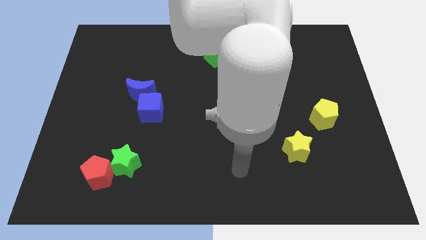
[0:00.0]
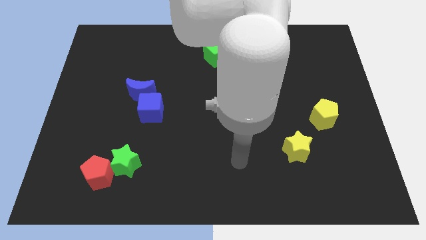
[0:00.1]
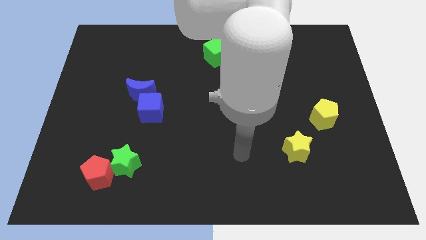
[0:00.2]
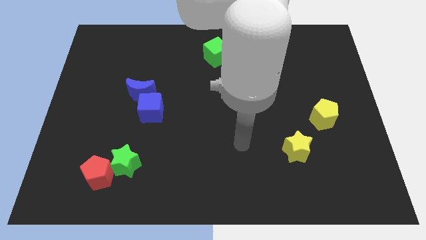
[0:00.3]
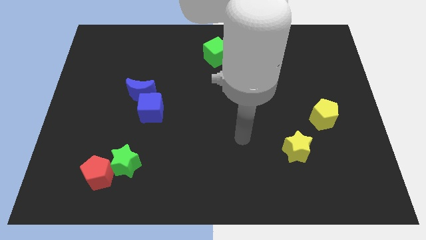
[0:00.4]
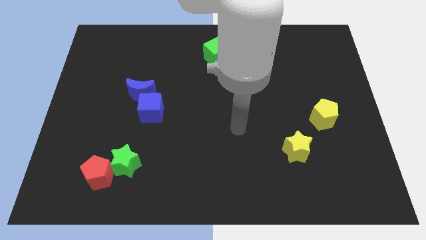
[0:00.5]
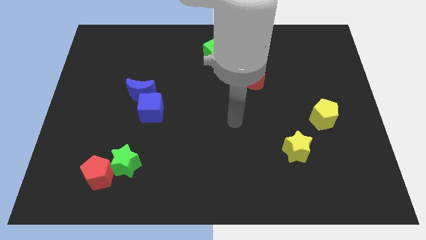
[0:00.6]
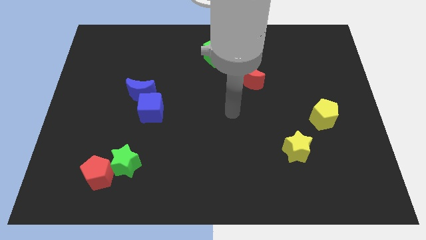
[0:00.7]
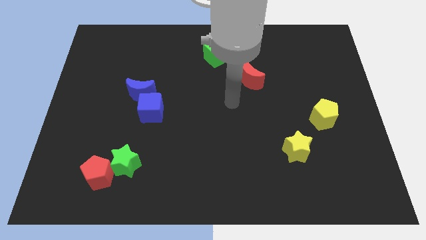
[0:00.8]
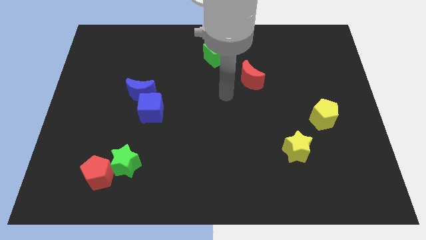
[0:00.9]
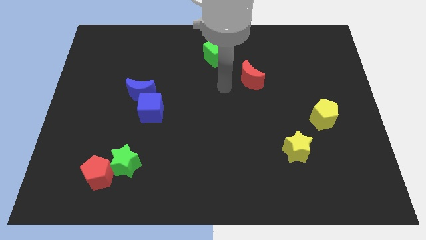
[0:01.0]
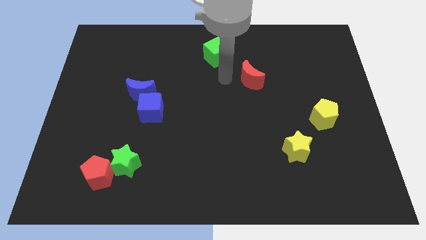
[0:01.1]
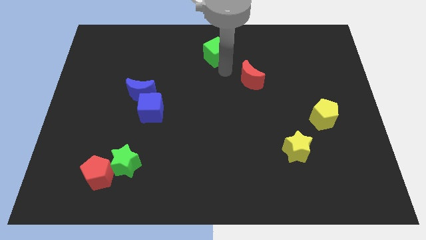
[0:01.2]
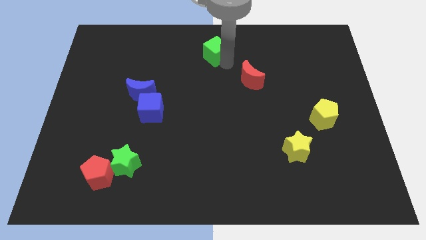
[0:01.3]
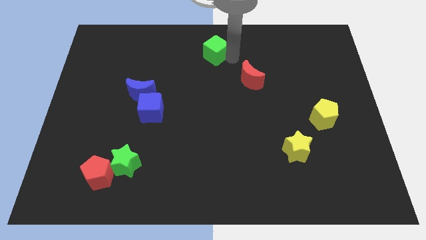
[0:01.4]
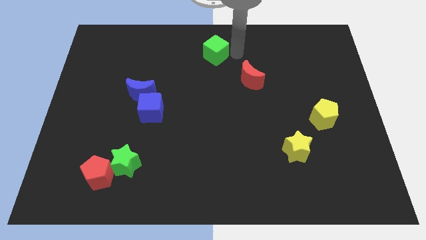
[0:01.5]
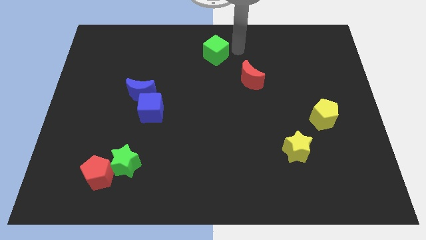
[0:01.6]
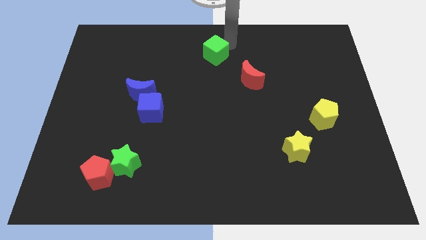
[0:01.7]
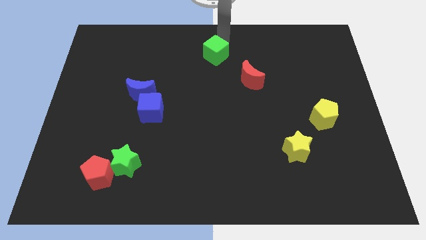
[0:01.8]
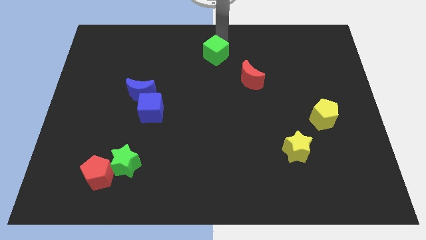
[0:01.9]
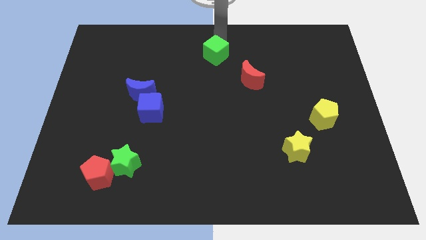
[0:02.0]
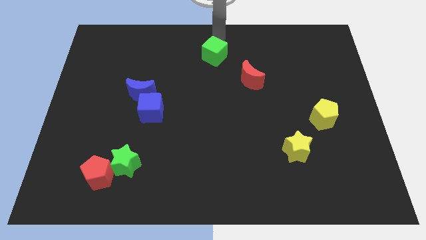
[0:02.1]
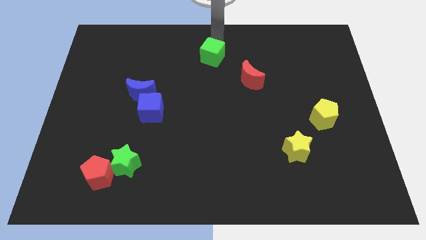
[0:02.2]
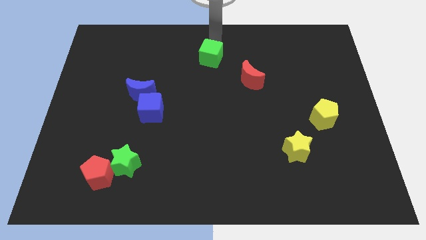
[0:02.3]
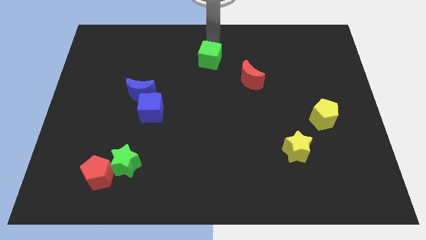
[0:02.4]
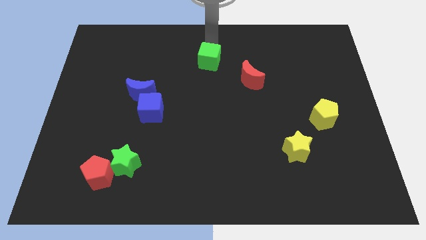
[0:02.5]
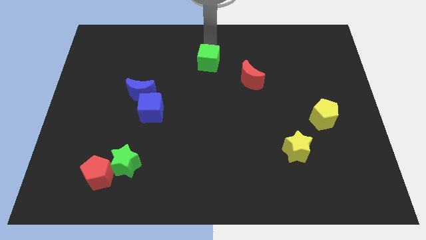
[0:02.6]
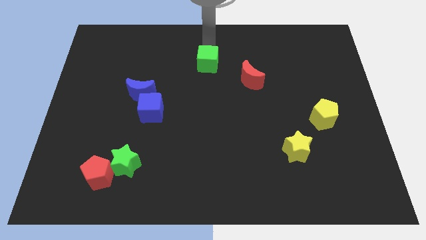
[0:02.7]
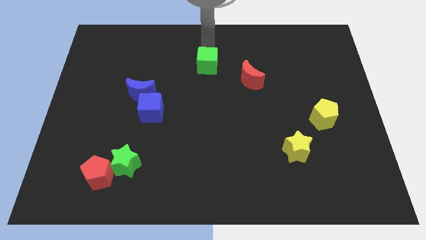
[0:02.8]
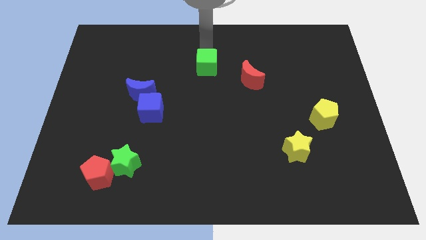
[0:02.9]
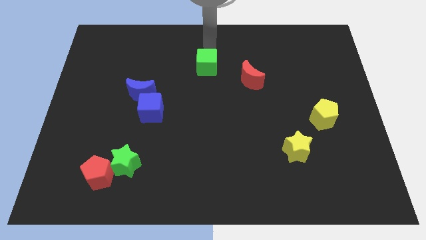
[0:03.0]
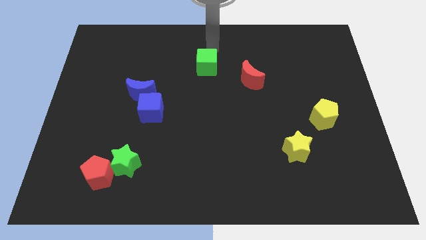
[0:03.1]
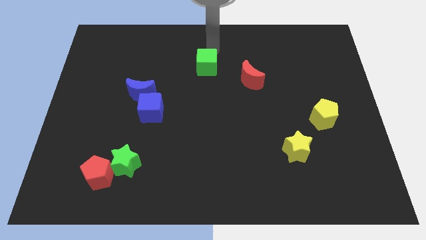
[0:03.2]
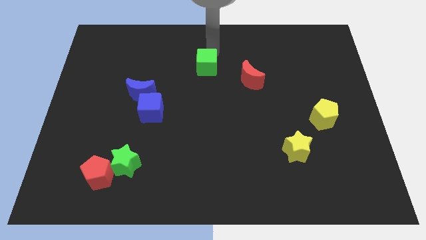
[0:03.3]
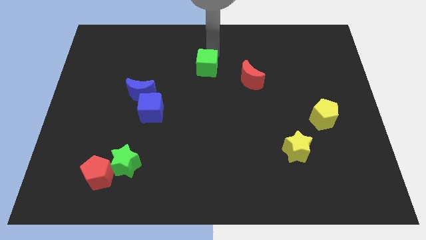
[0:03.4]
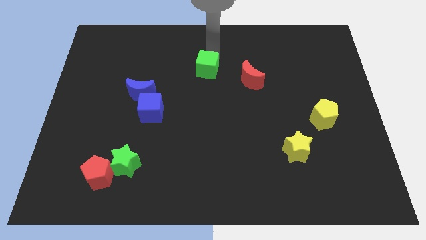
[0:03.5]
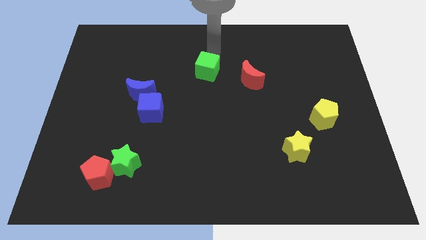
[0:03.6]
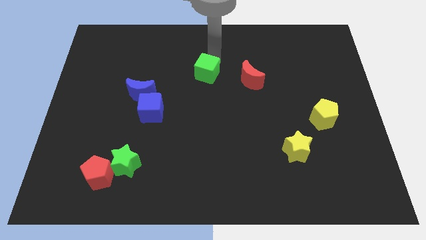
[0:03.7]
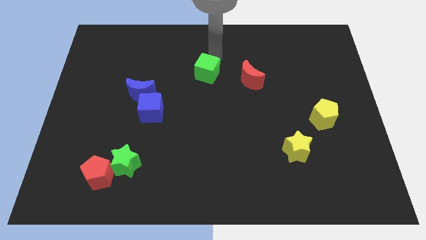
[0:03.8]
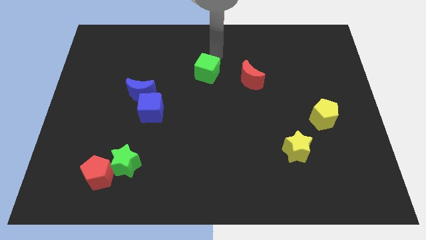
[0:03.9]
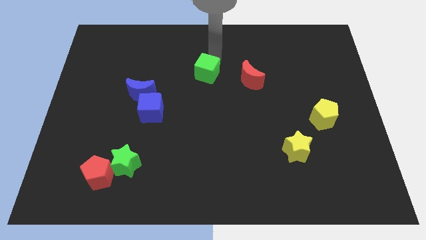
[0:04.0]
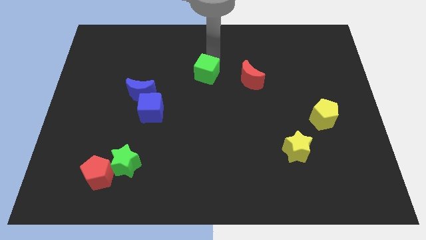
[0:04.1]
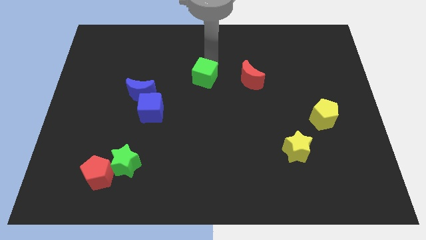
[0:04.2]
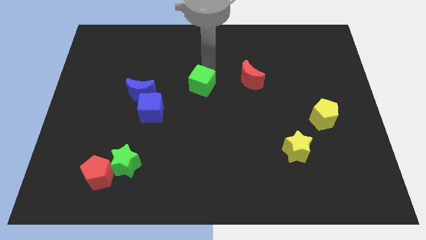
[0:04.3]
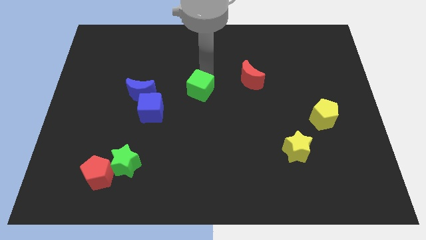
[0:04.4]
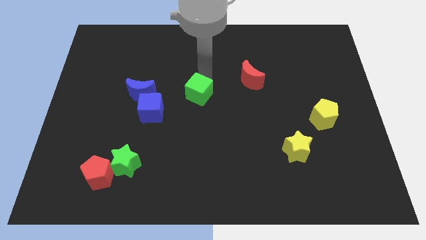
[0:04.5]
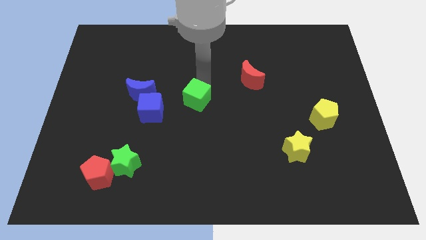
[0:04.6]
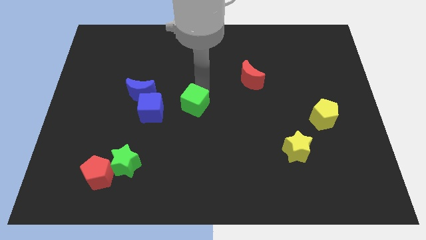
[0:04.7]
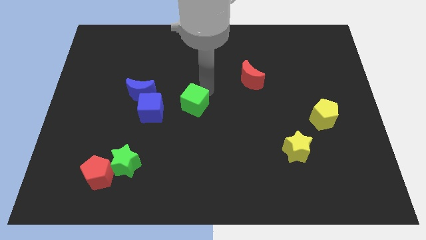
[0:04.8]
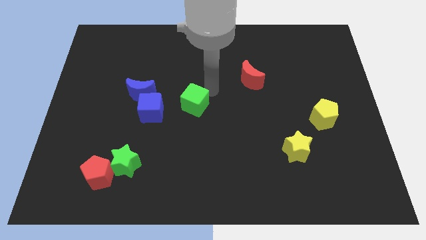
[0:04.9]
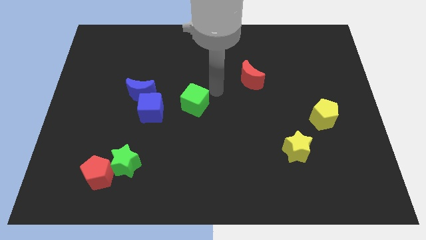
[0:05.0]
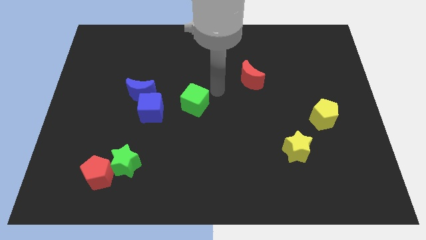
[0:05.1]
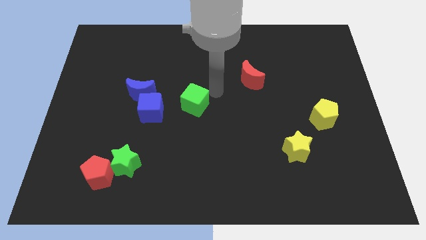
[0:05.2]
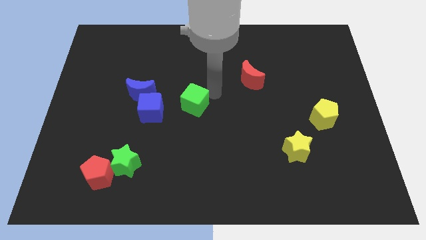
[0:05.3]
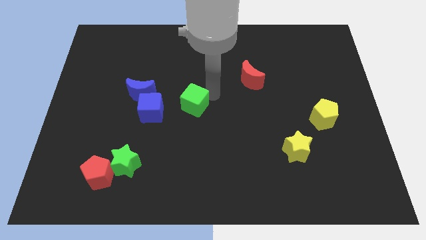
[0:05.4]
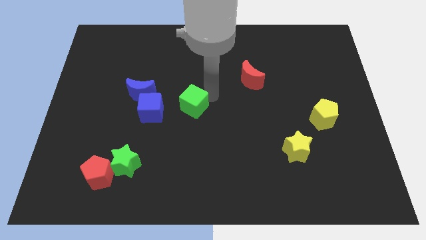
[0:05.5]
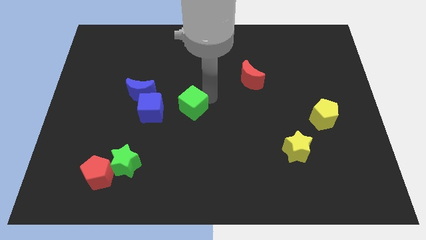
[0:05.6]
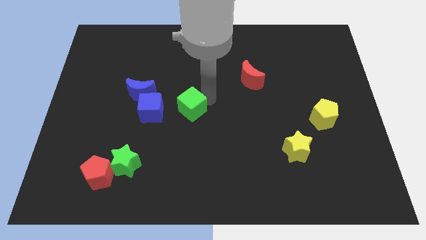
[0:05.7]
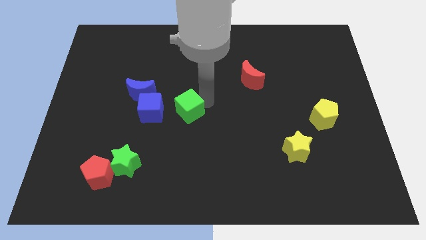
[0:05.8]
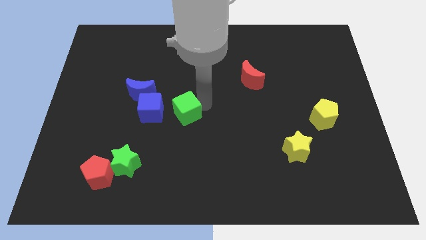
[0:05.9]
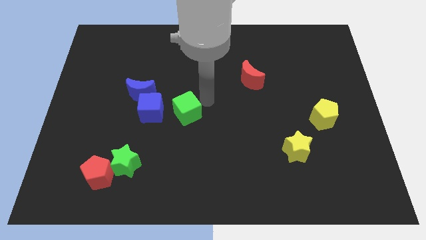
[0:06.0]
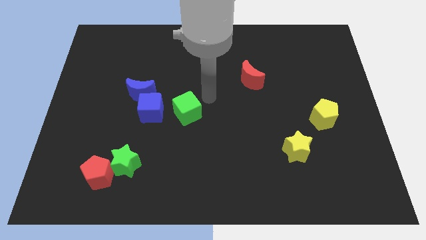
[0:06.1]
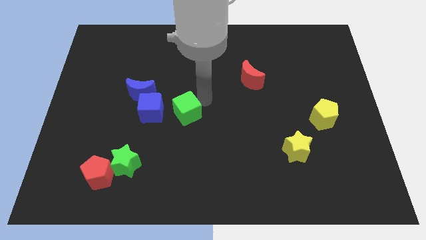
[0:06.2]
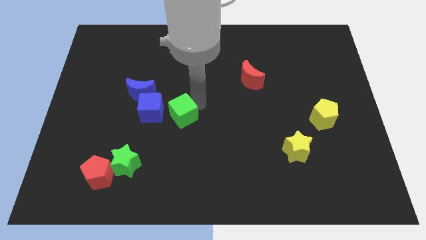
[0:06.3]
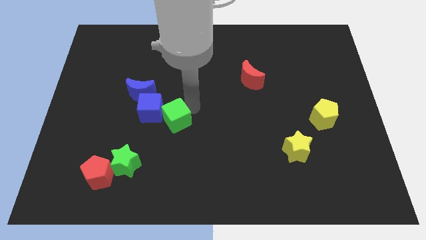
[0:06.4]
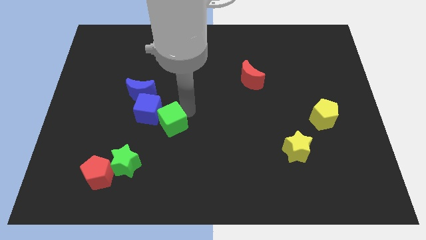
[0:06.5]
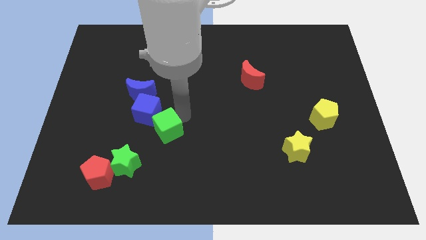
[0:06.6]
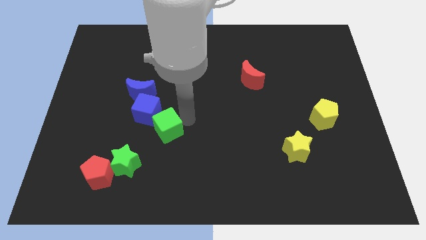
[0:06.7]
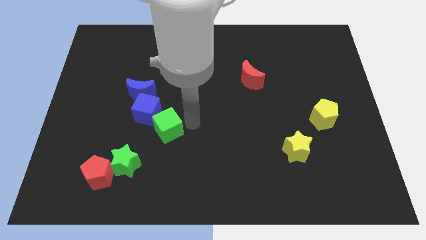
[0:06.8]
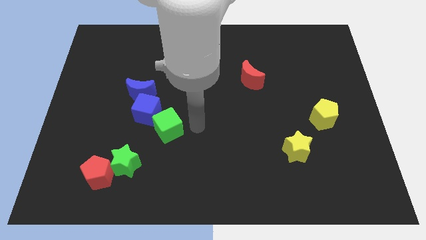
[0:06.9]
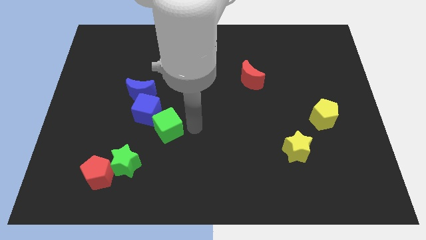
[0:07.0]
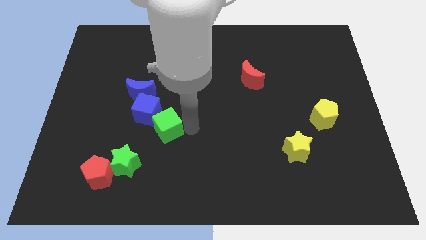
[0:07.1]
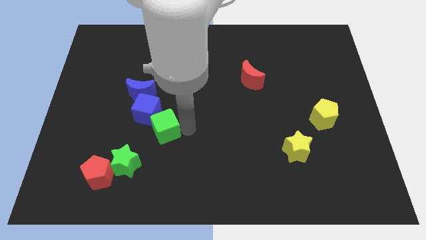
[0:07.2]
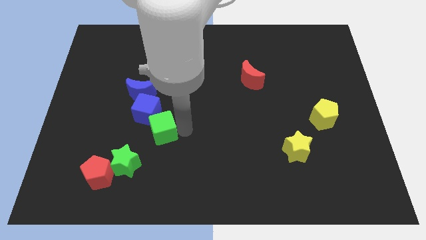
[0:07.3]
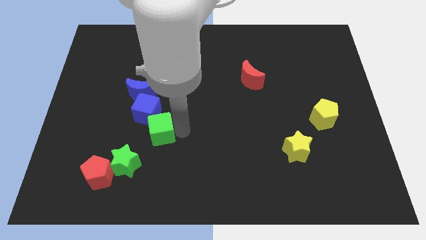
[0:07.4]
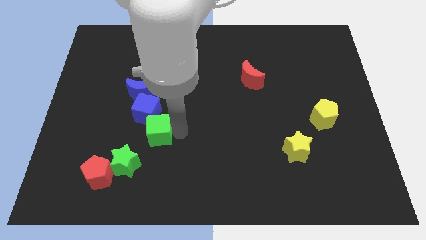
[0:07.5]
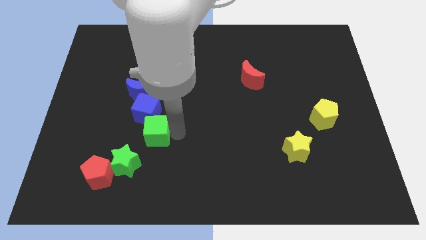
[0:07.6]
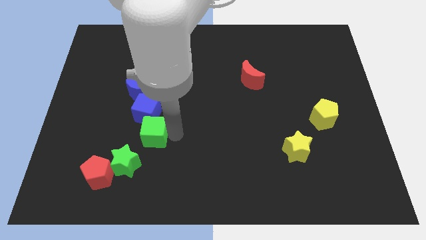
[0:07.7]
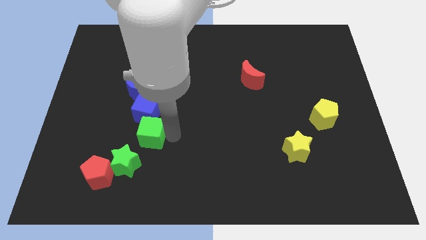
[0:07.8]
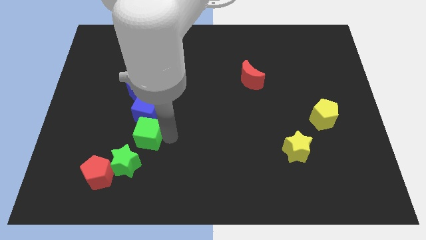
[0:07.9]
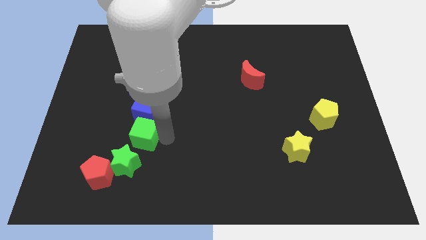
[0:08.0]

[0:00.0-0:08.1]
put the green cube to the bottom left side of the blue cube
